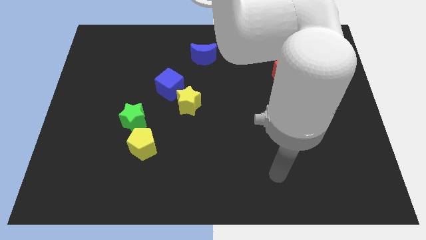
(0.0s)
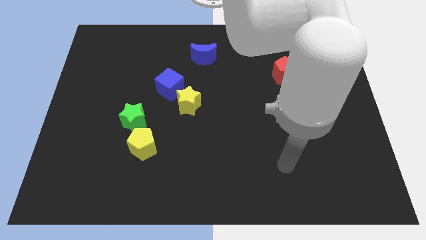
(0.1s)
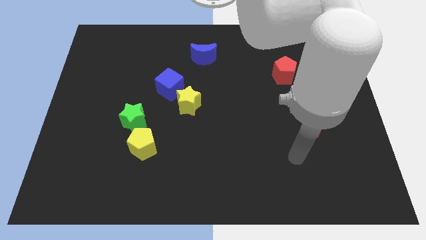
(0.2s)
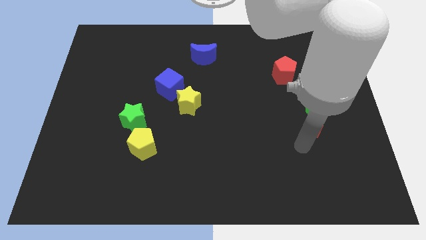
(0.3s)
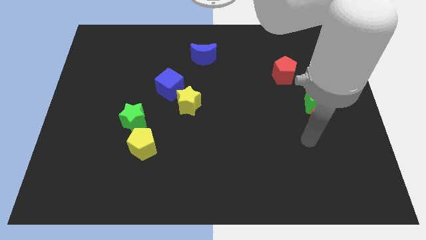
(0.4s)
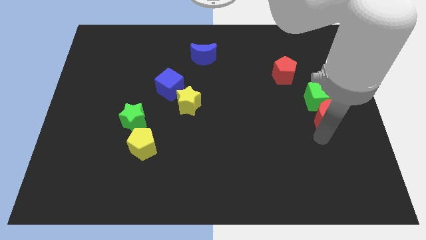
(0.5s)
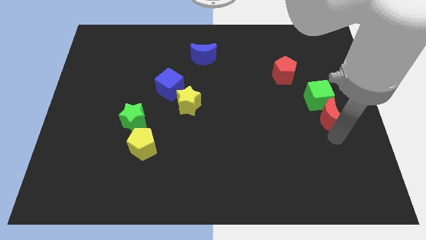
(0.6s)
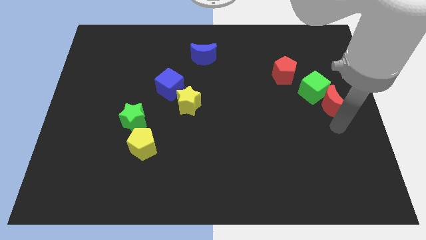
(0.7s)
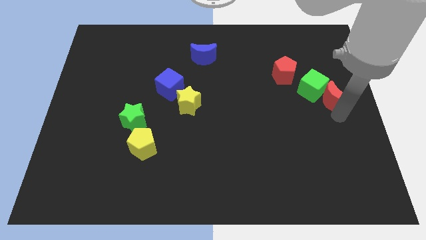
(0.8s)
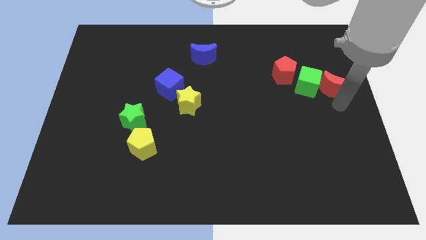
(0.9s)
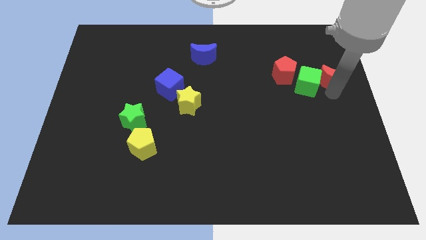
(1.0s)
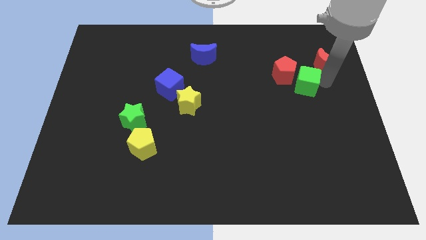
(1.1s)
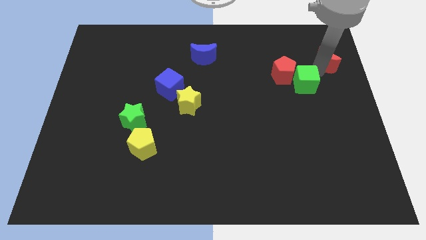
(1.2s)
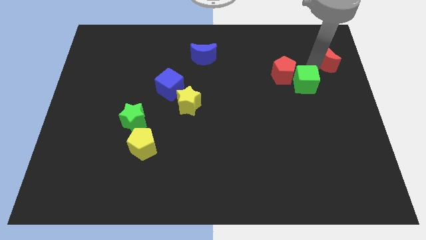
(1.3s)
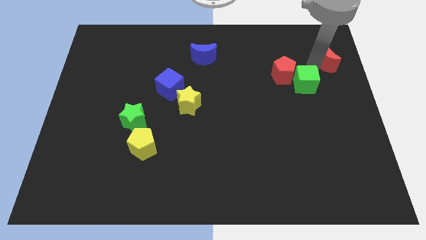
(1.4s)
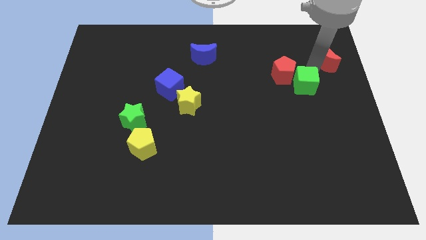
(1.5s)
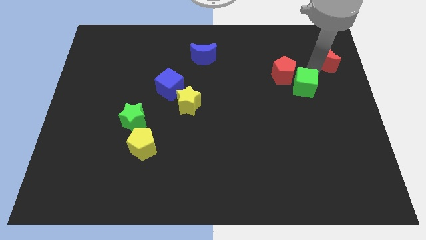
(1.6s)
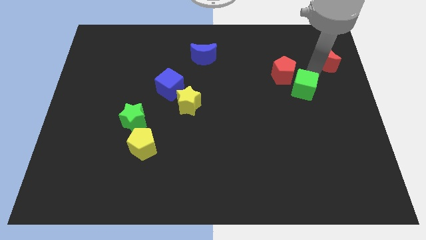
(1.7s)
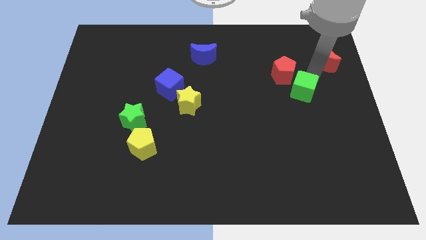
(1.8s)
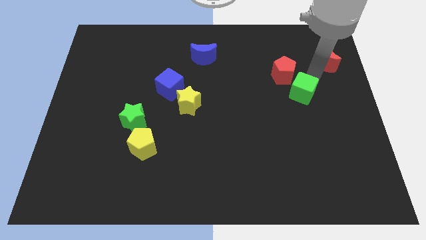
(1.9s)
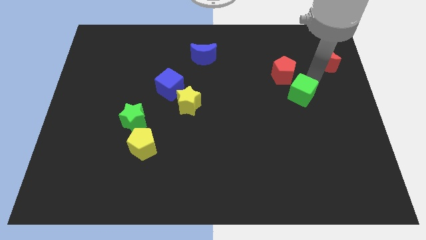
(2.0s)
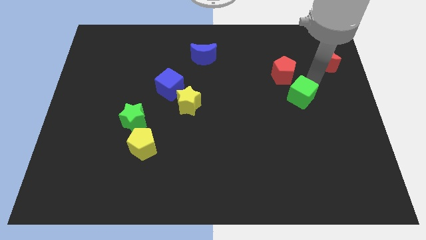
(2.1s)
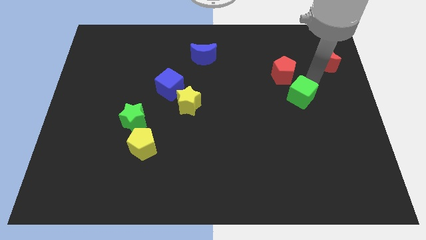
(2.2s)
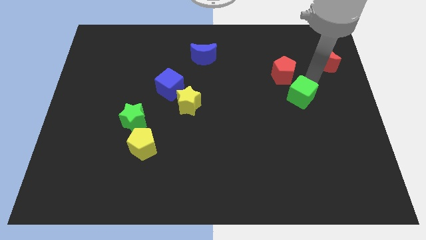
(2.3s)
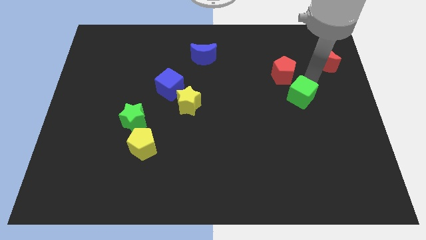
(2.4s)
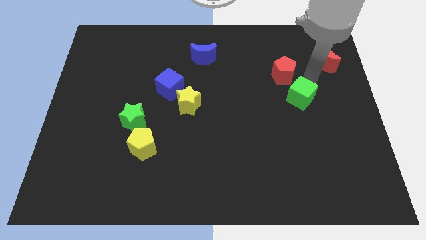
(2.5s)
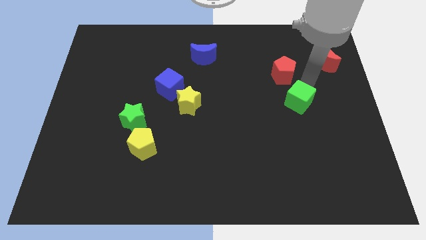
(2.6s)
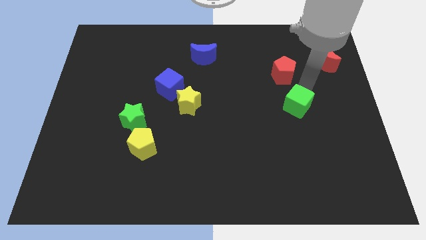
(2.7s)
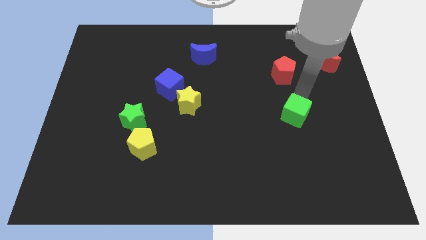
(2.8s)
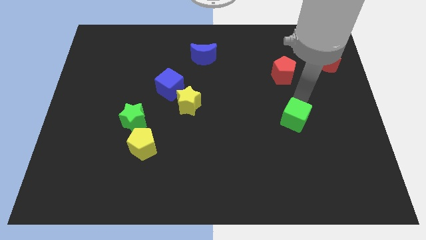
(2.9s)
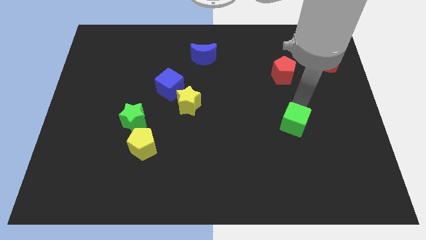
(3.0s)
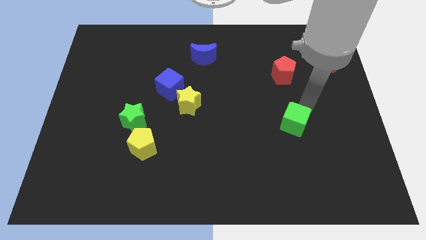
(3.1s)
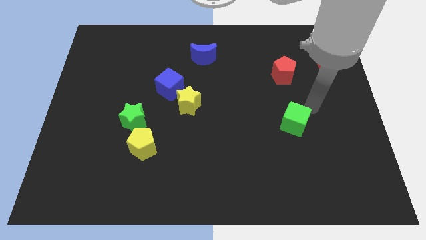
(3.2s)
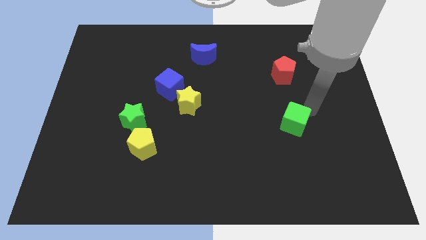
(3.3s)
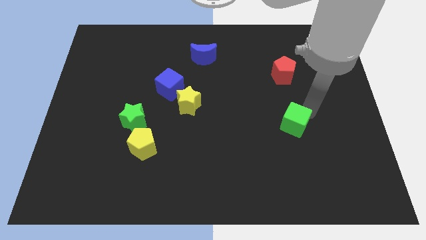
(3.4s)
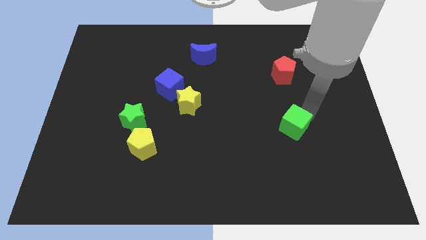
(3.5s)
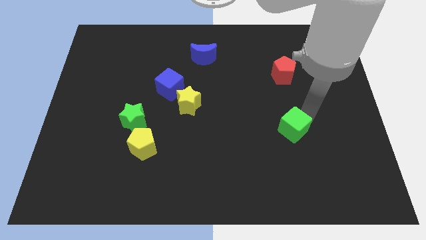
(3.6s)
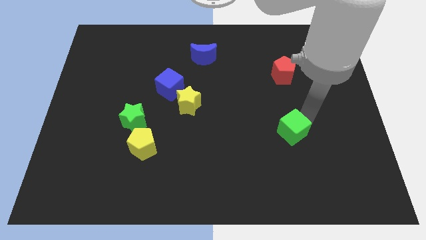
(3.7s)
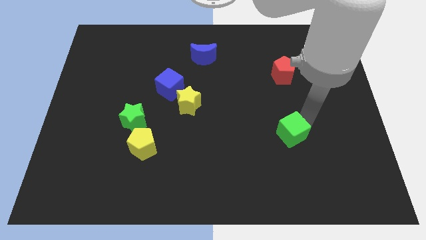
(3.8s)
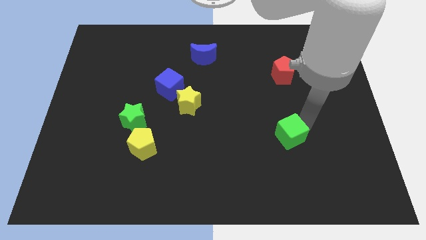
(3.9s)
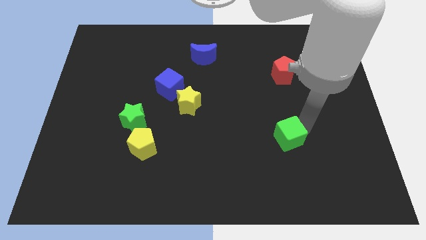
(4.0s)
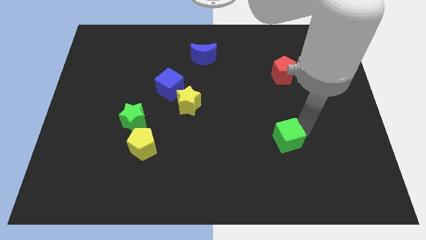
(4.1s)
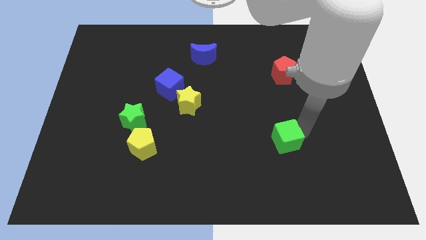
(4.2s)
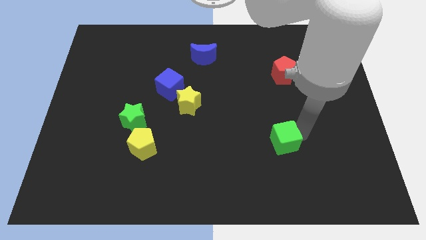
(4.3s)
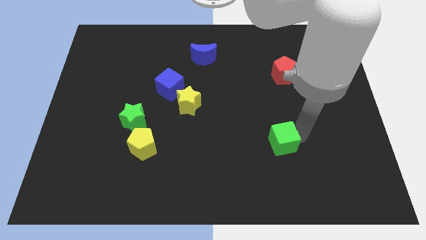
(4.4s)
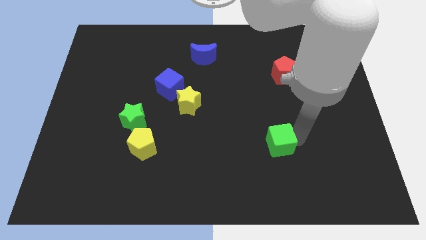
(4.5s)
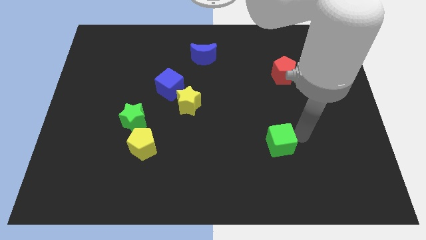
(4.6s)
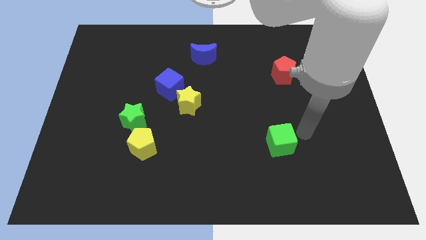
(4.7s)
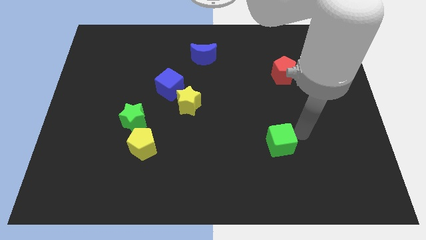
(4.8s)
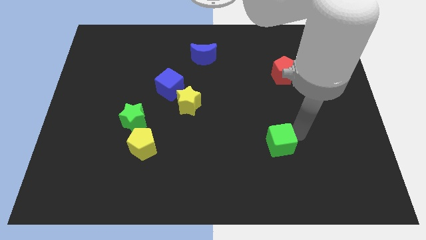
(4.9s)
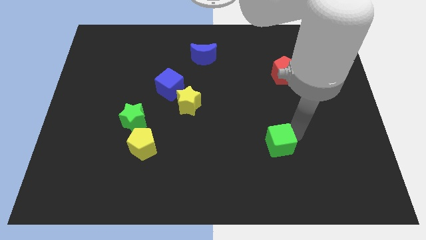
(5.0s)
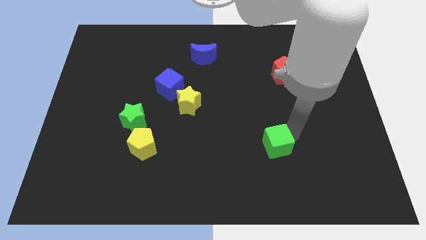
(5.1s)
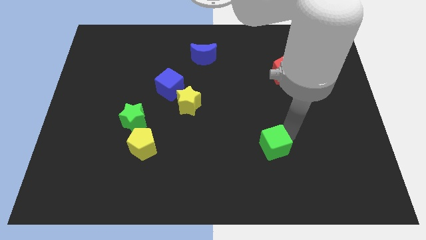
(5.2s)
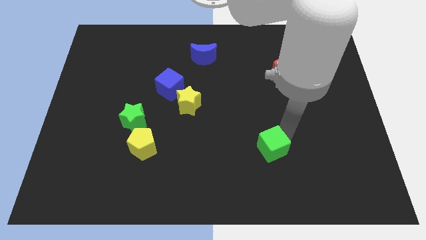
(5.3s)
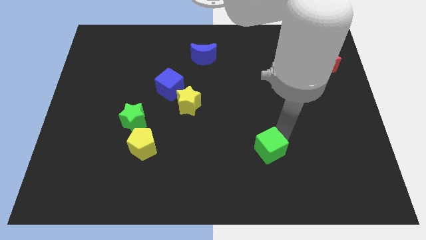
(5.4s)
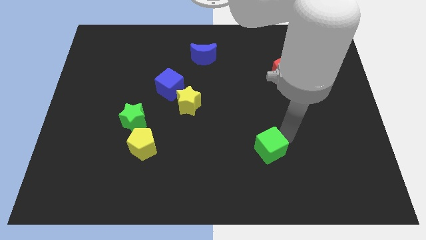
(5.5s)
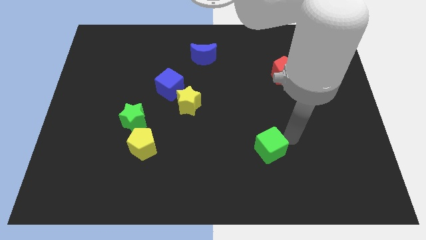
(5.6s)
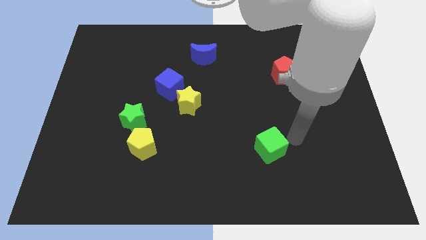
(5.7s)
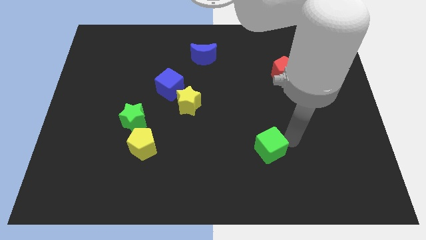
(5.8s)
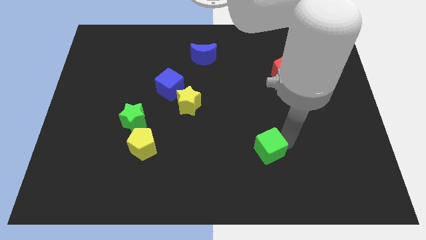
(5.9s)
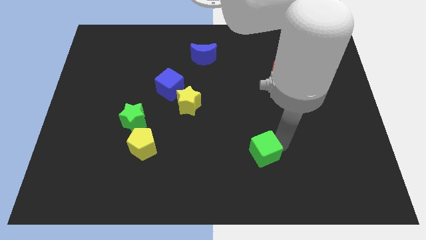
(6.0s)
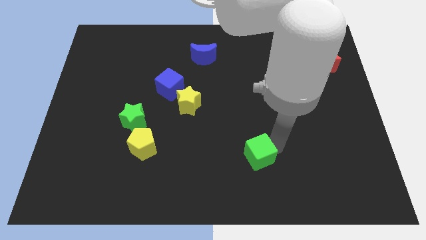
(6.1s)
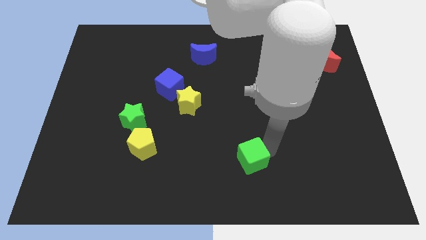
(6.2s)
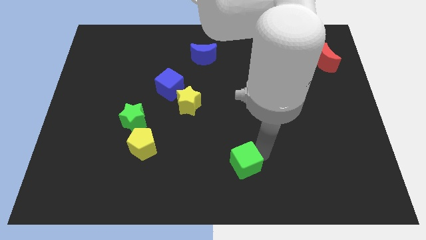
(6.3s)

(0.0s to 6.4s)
move the green cube to the bottom
